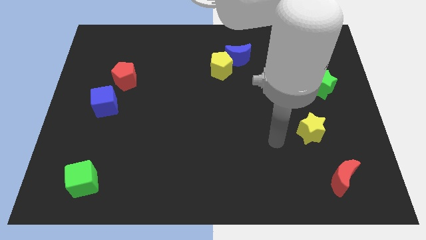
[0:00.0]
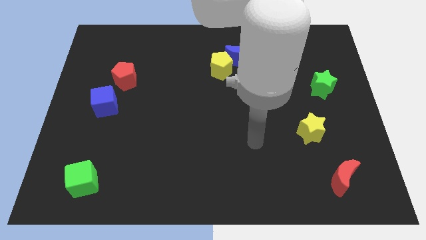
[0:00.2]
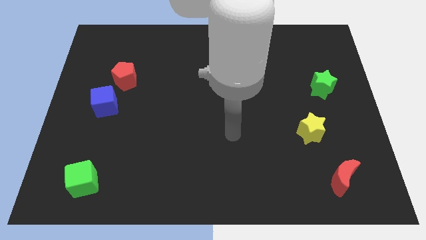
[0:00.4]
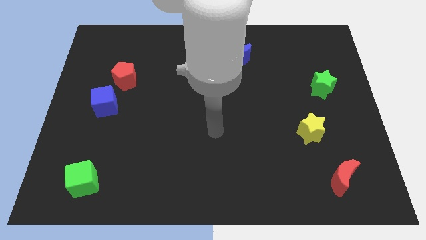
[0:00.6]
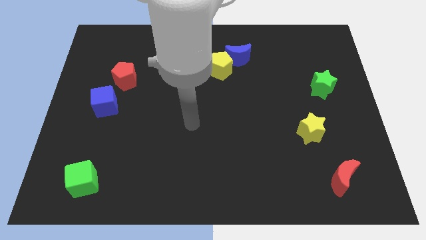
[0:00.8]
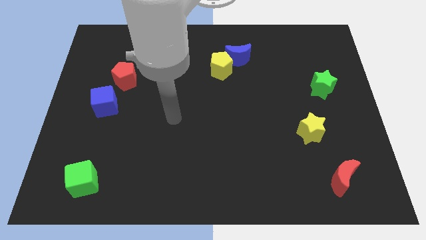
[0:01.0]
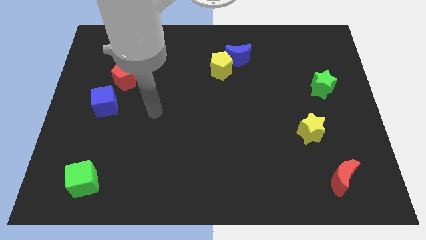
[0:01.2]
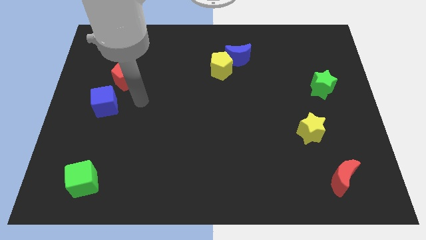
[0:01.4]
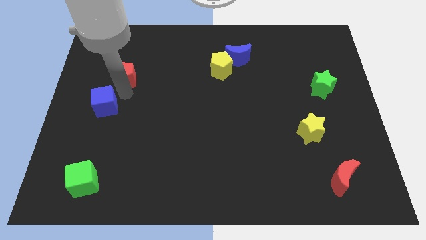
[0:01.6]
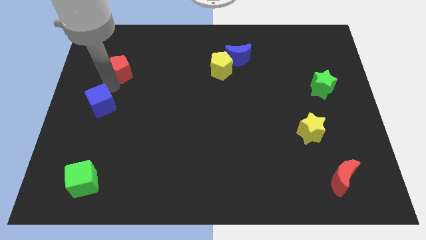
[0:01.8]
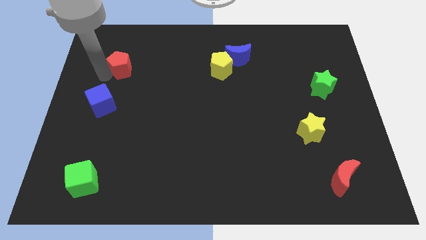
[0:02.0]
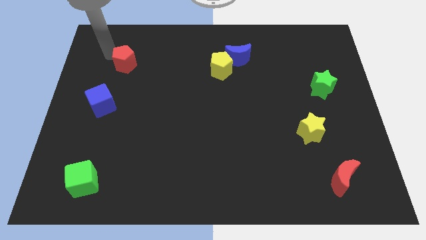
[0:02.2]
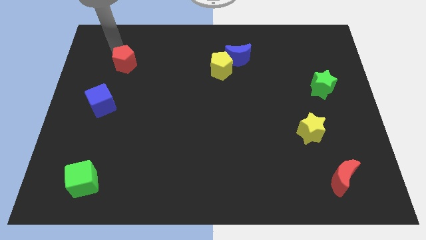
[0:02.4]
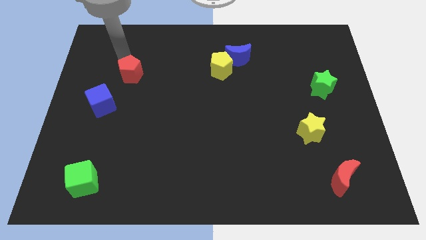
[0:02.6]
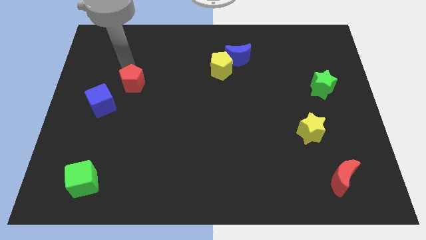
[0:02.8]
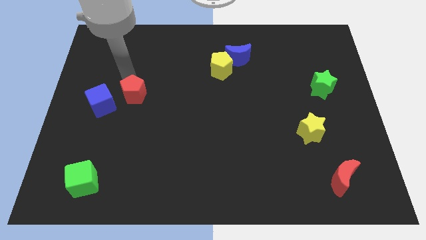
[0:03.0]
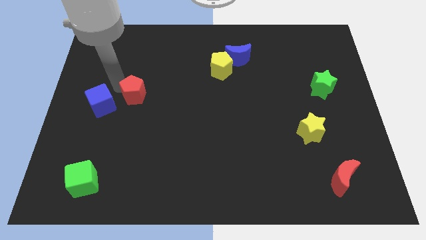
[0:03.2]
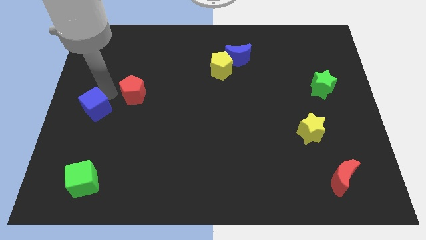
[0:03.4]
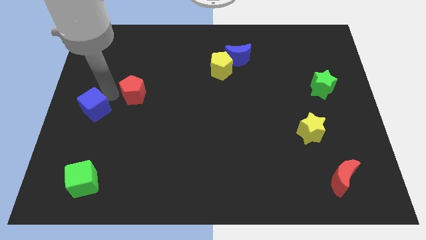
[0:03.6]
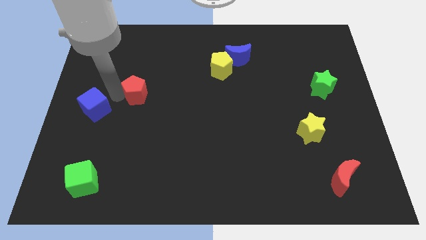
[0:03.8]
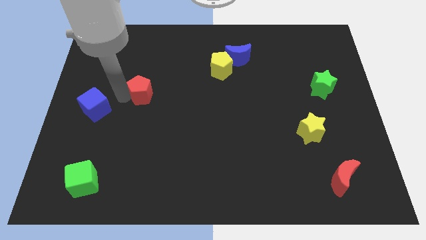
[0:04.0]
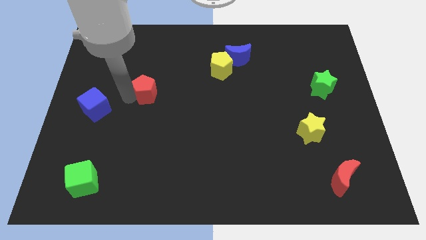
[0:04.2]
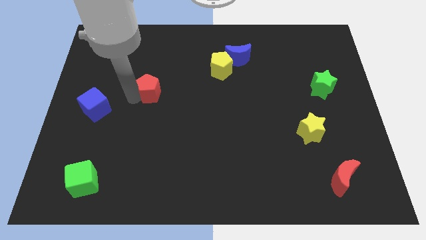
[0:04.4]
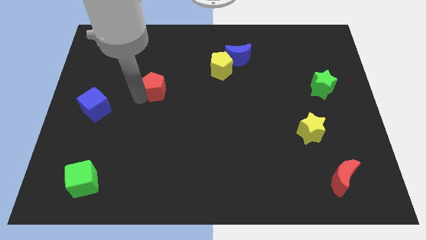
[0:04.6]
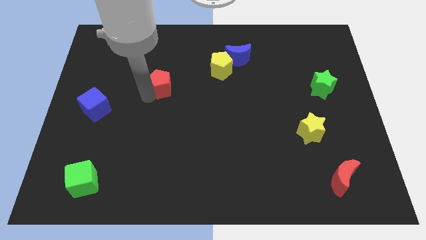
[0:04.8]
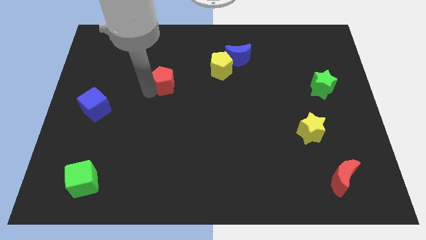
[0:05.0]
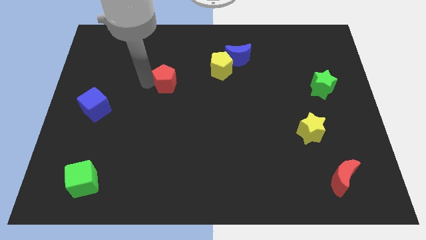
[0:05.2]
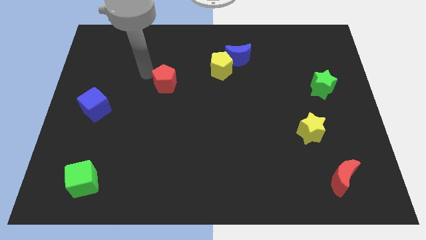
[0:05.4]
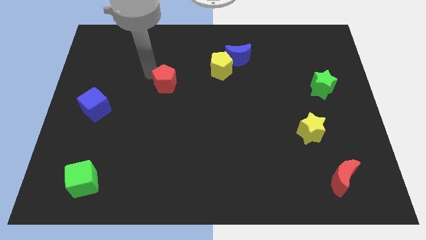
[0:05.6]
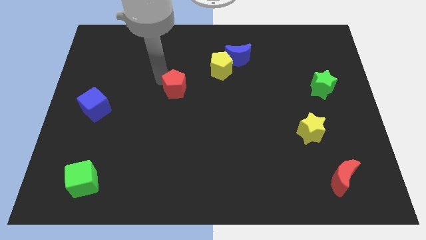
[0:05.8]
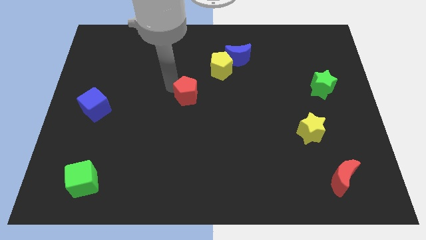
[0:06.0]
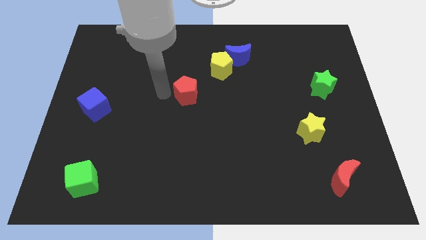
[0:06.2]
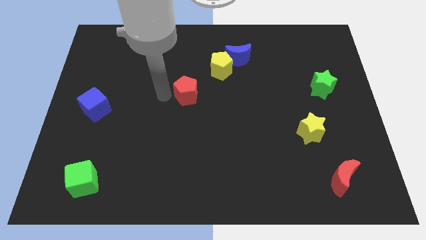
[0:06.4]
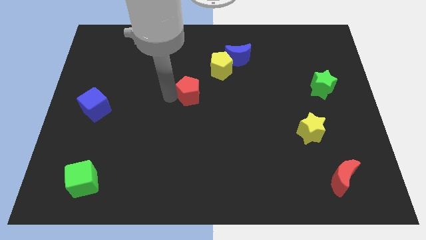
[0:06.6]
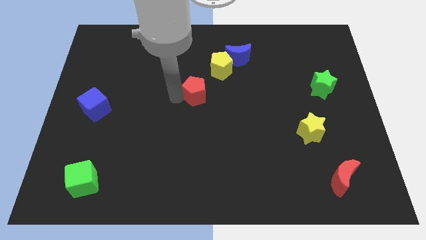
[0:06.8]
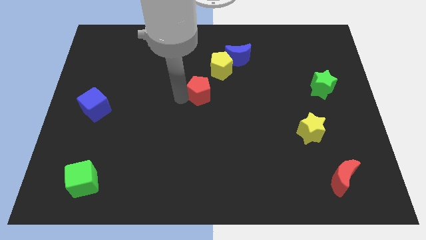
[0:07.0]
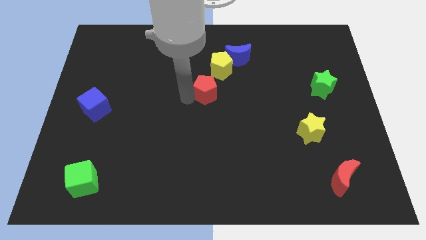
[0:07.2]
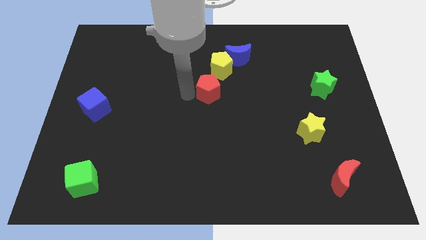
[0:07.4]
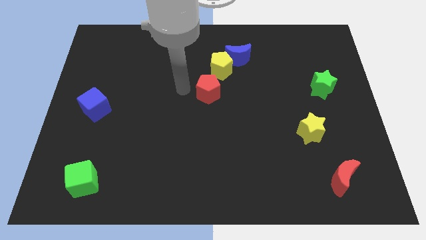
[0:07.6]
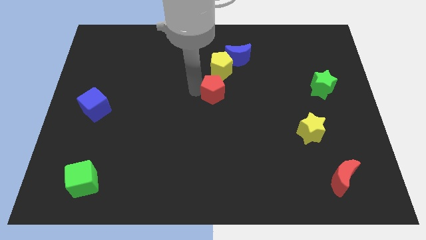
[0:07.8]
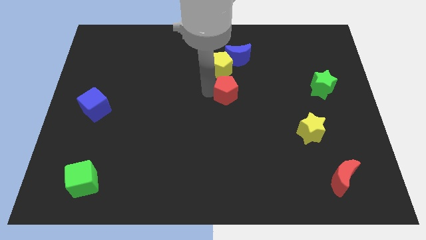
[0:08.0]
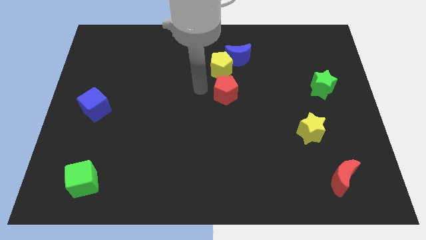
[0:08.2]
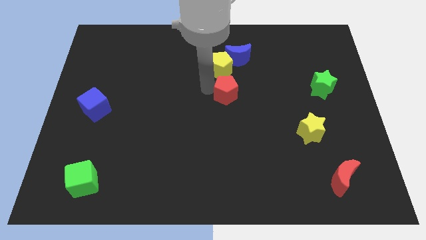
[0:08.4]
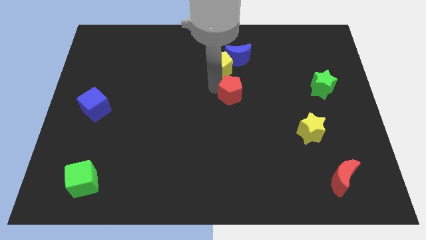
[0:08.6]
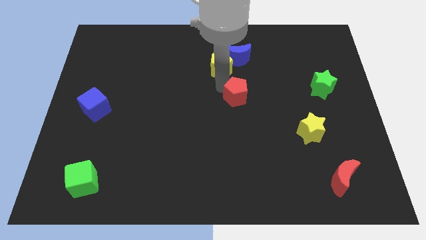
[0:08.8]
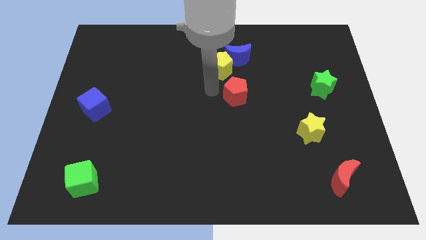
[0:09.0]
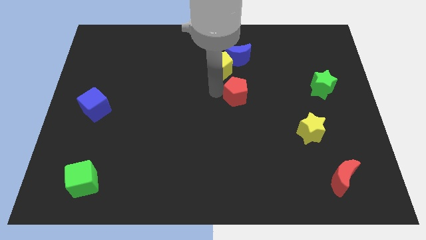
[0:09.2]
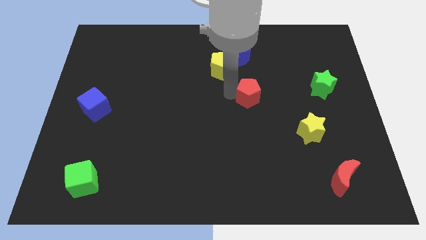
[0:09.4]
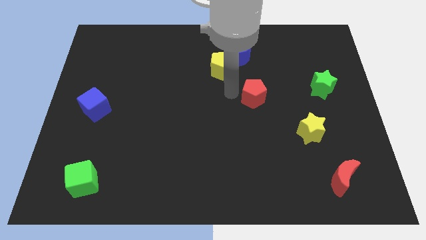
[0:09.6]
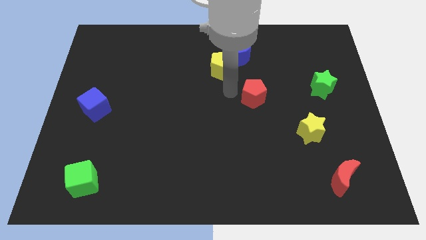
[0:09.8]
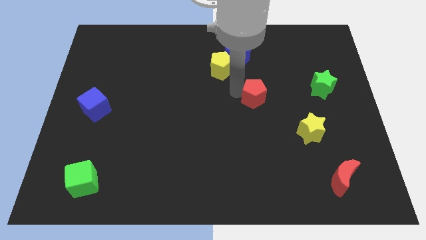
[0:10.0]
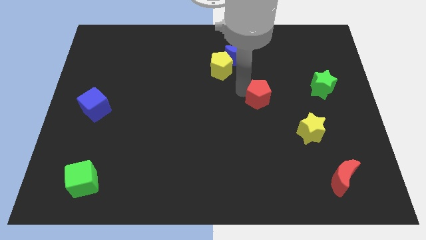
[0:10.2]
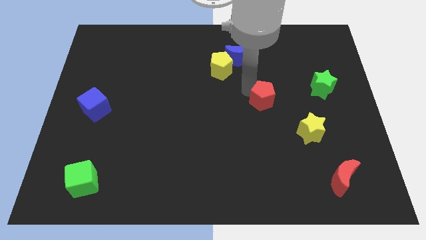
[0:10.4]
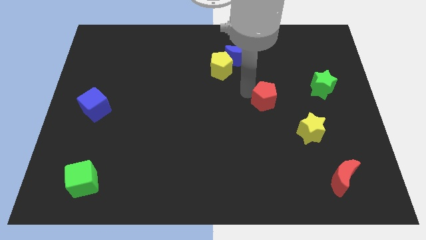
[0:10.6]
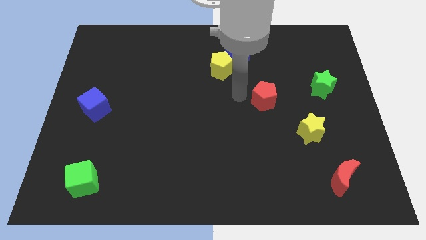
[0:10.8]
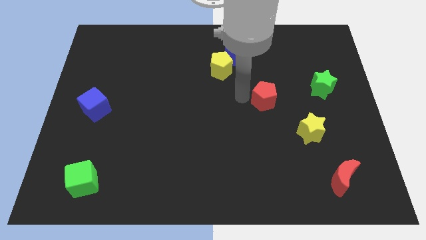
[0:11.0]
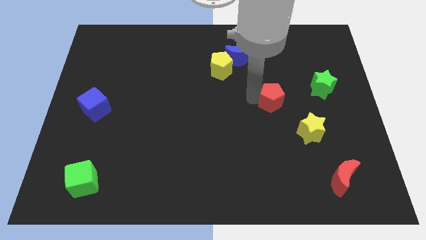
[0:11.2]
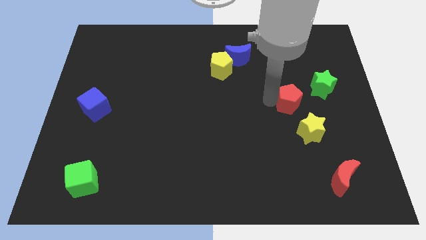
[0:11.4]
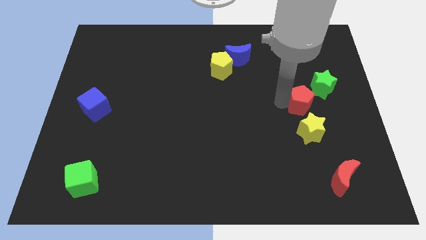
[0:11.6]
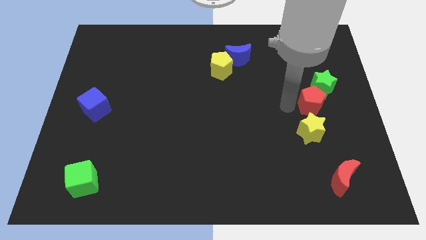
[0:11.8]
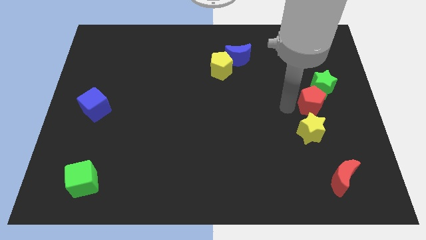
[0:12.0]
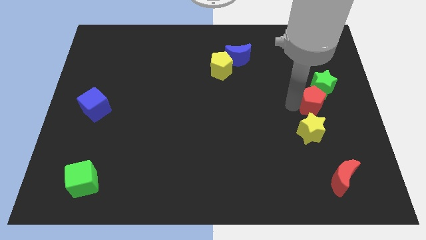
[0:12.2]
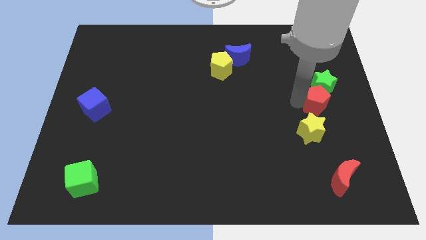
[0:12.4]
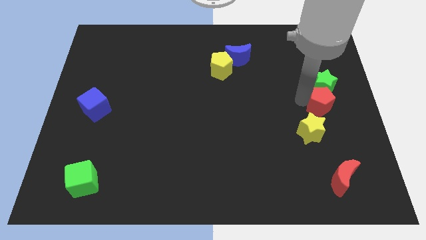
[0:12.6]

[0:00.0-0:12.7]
slide the red pentagon to the center right
